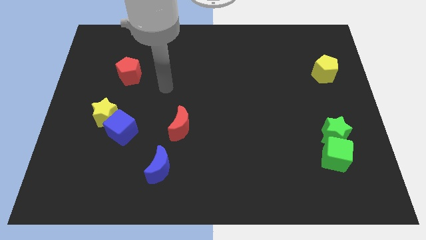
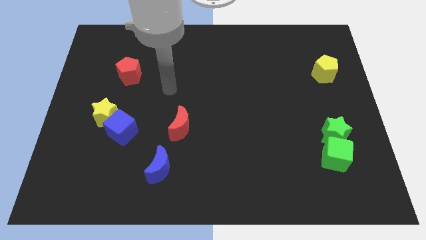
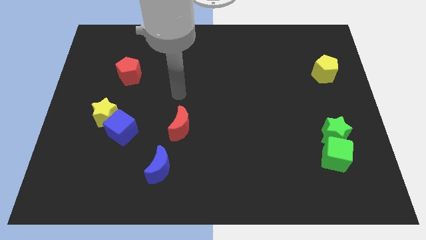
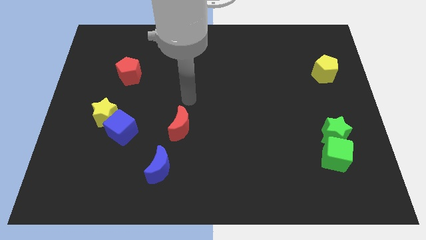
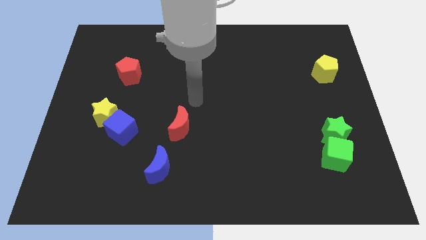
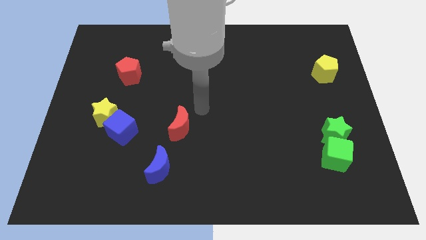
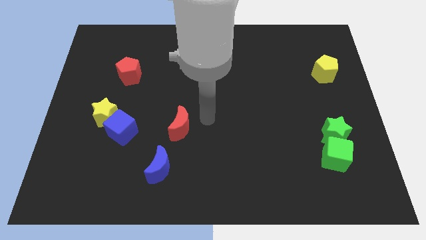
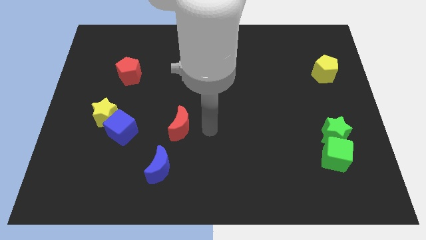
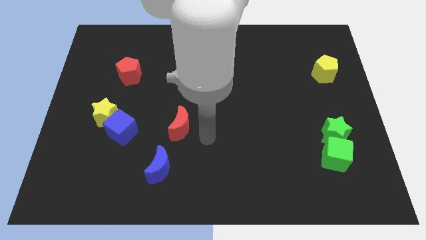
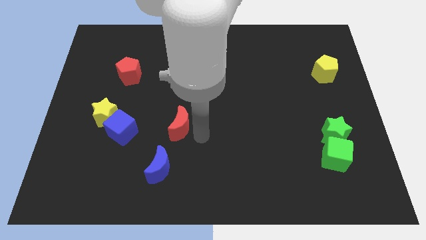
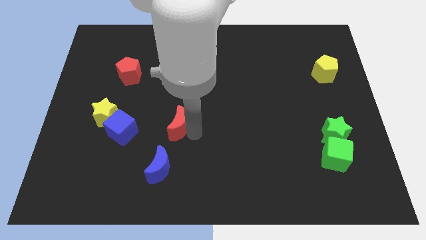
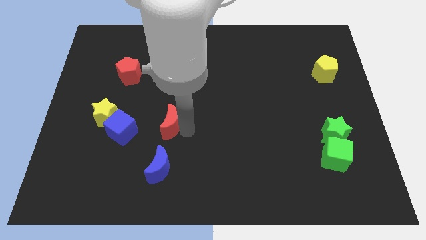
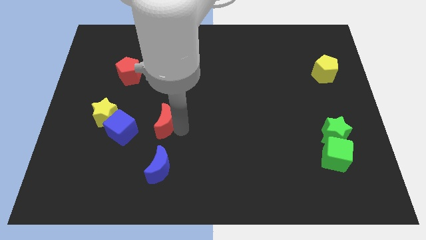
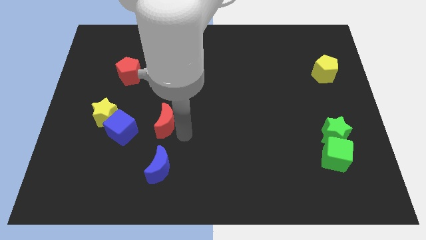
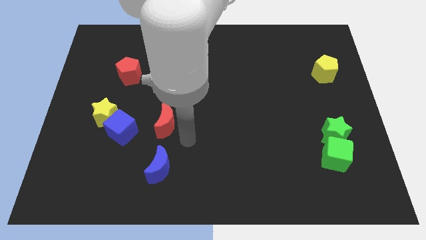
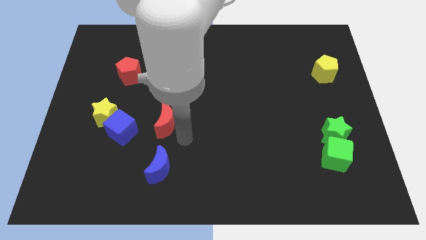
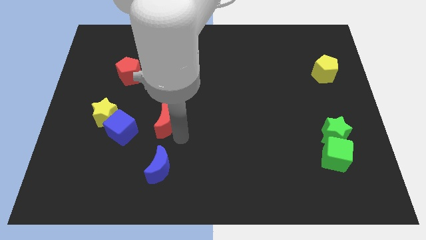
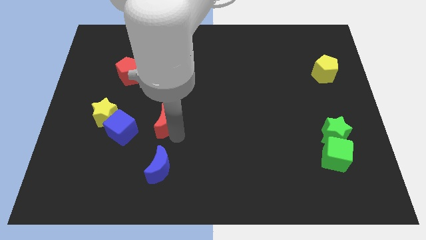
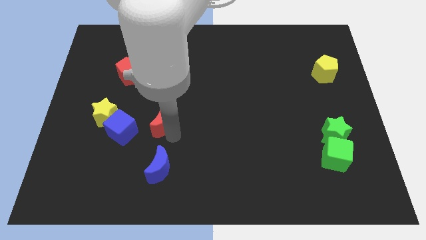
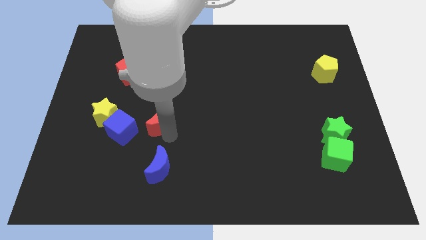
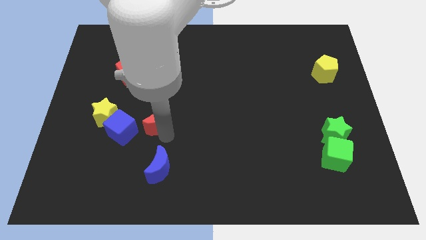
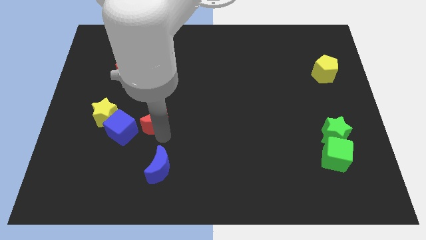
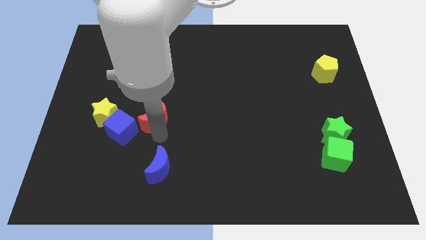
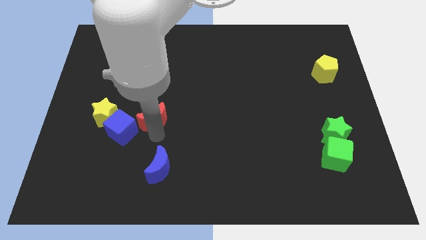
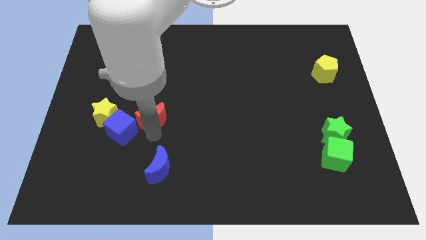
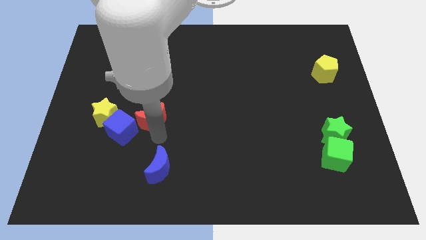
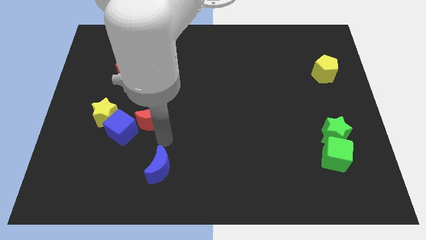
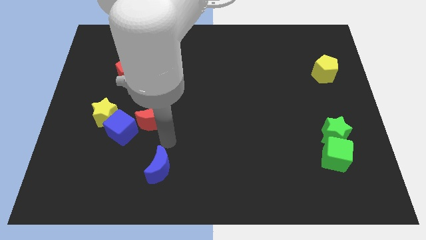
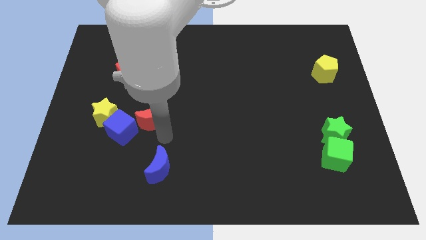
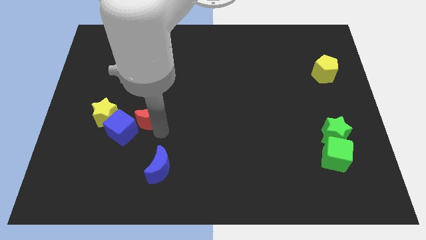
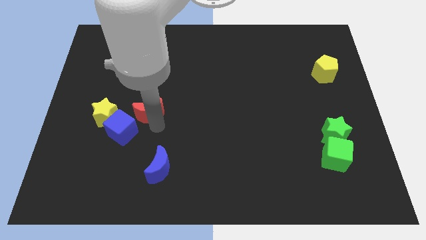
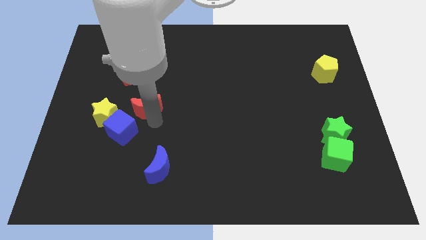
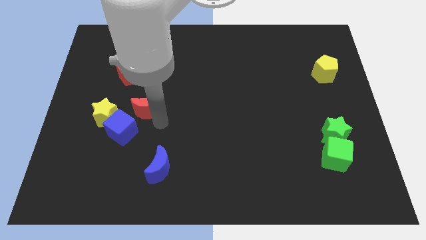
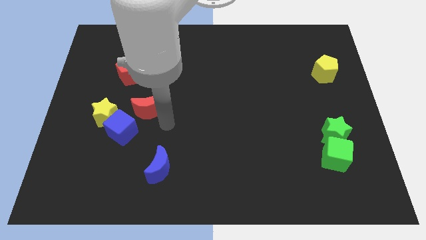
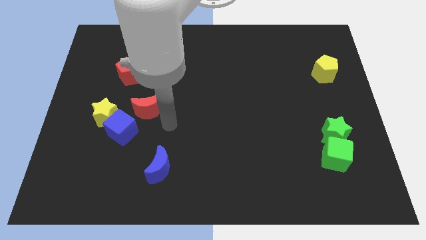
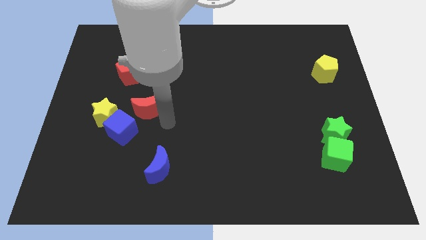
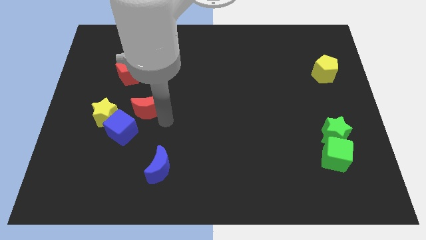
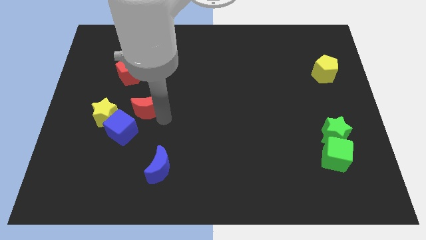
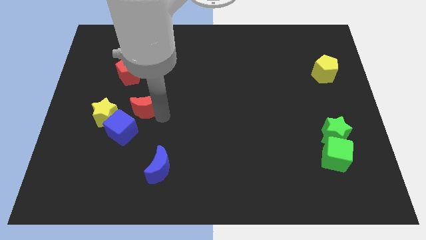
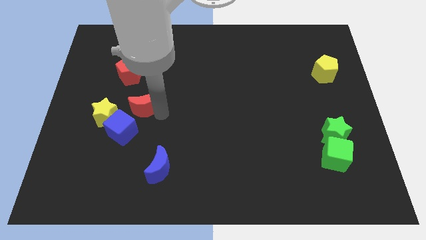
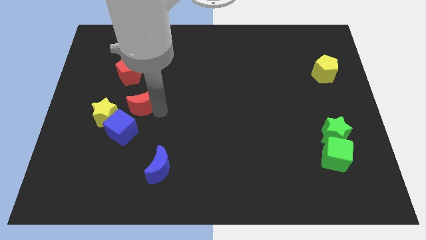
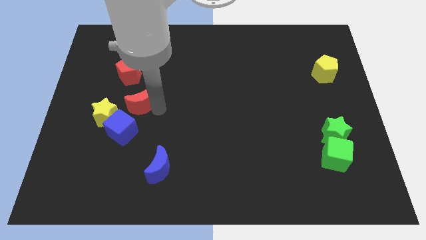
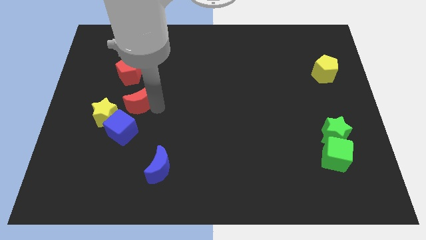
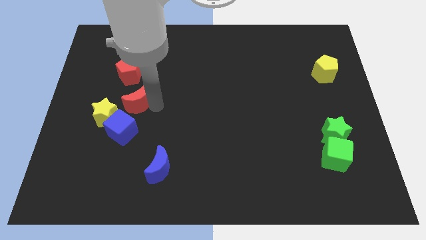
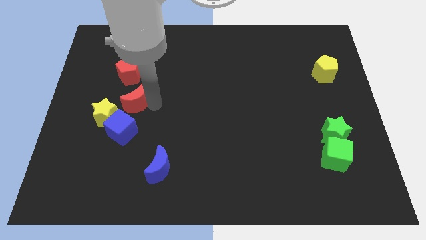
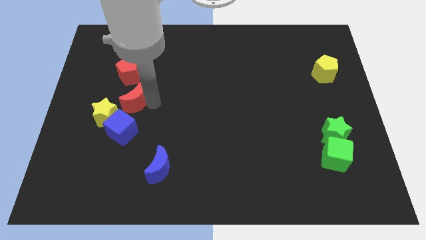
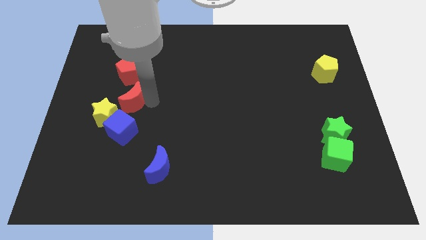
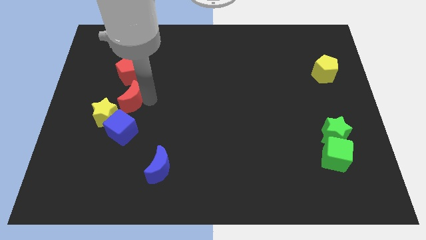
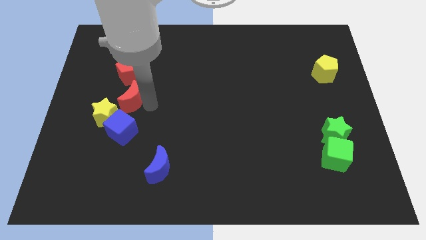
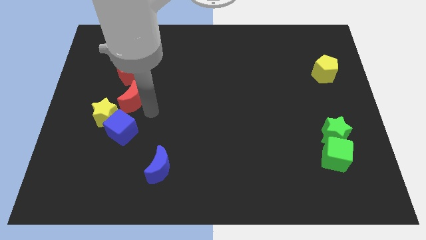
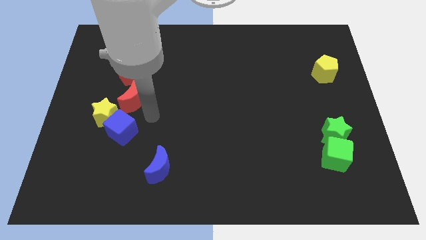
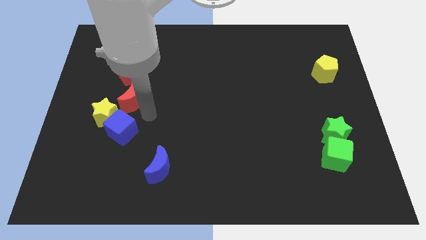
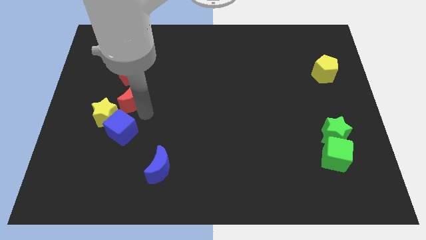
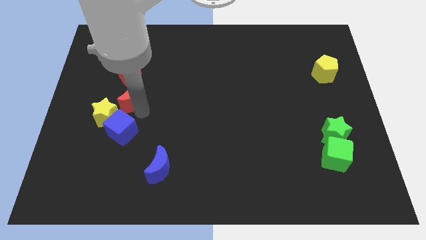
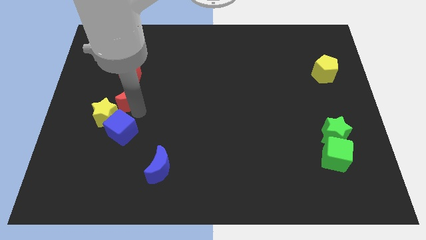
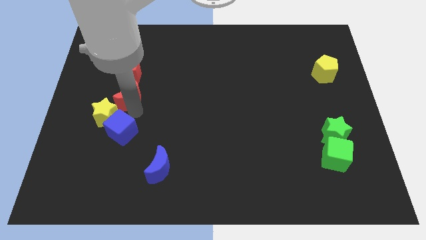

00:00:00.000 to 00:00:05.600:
put the red moon above the yellow star

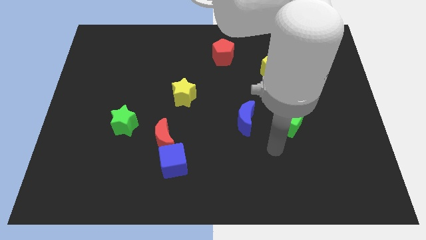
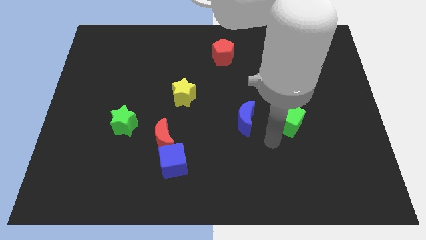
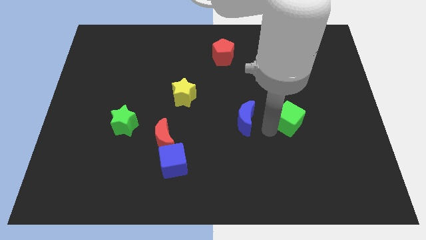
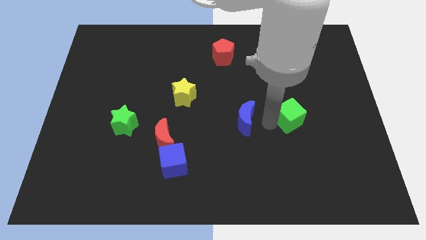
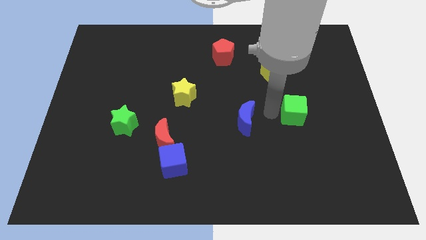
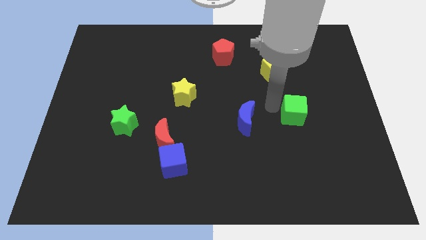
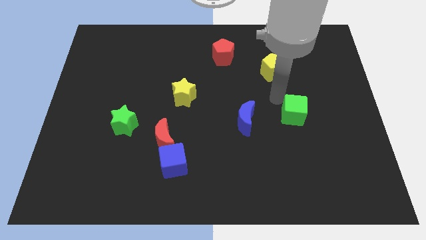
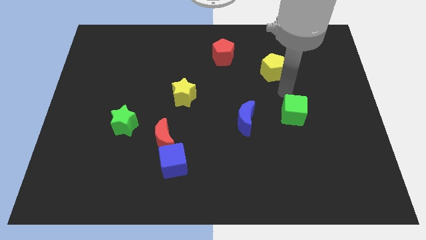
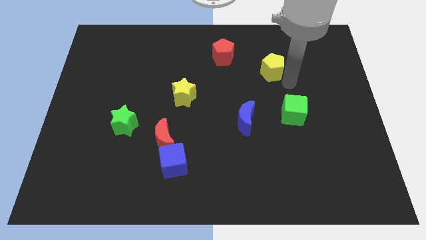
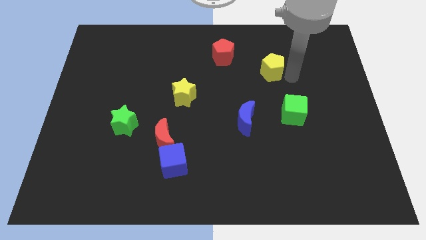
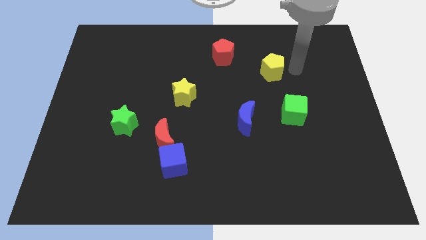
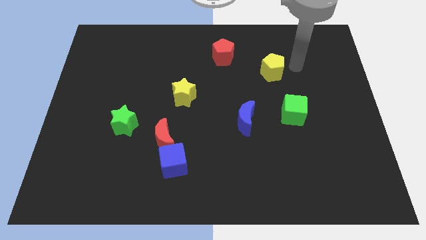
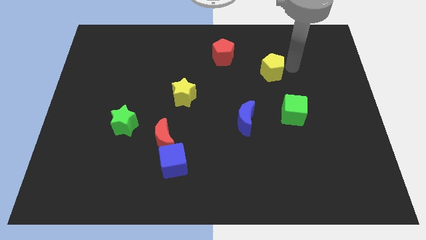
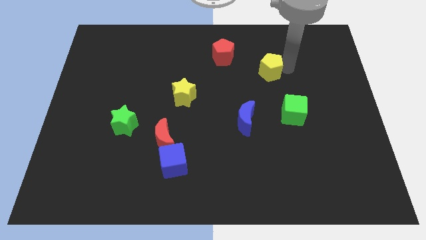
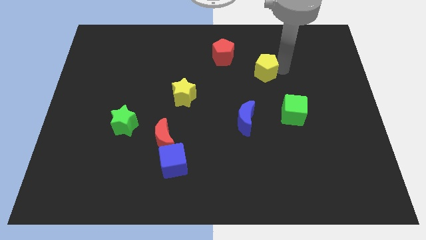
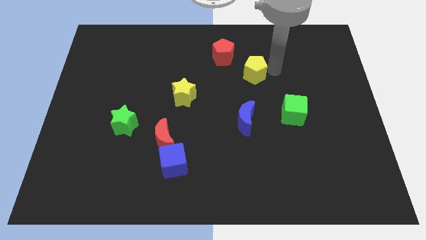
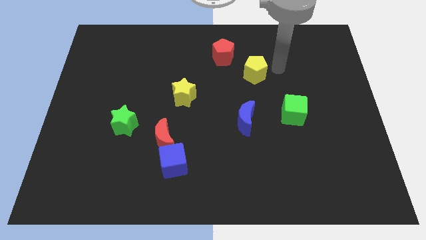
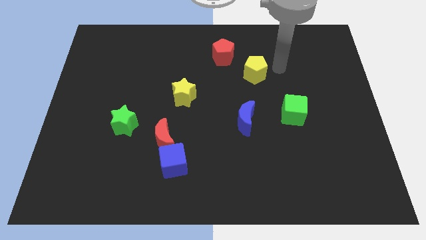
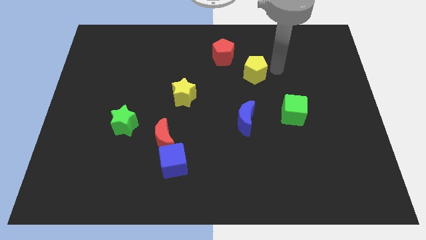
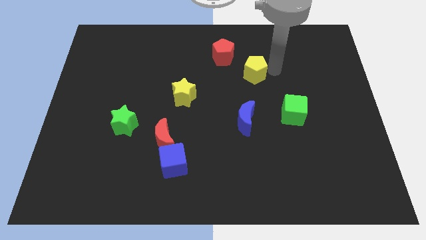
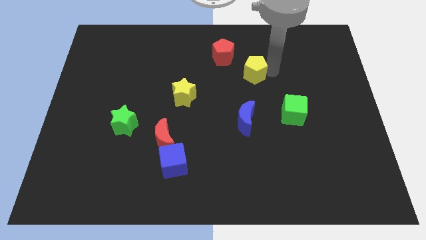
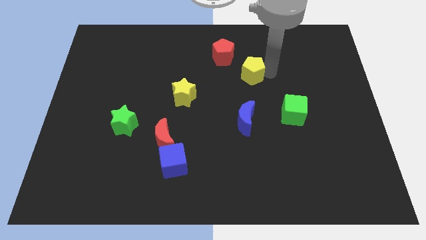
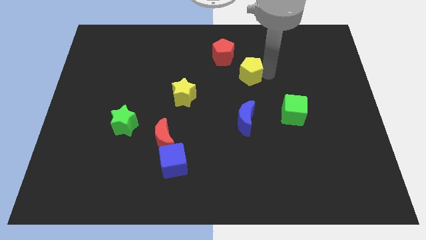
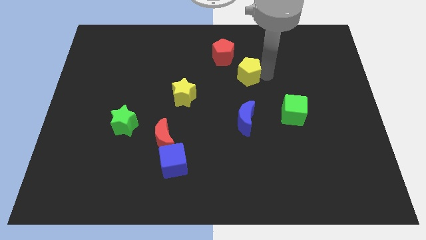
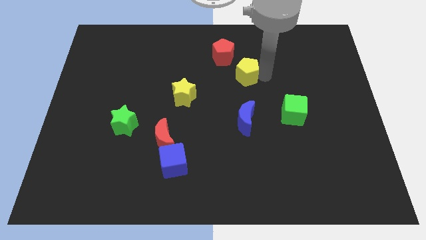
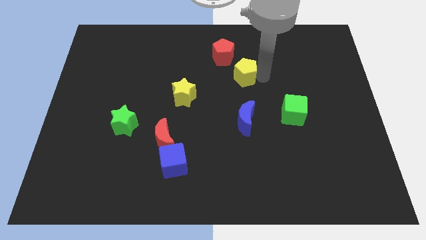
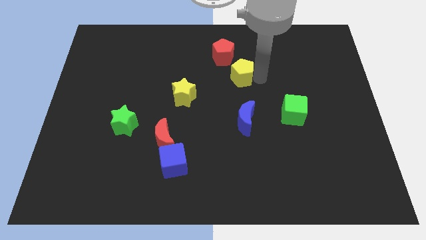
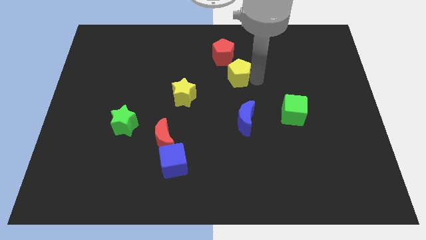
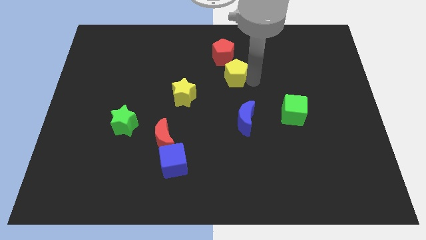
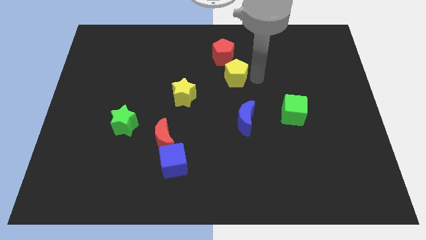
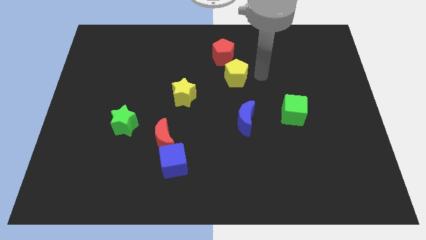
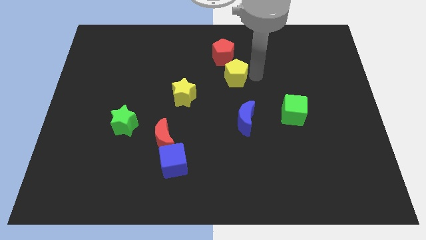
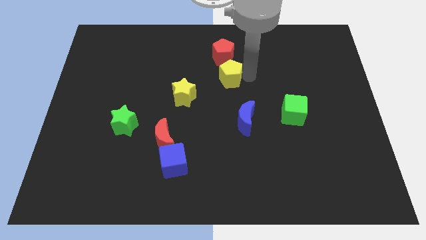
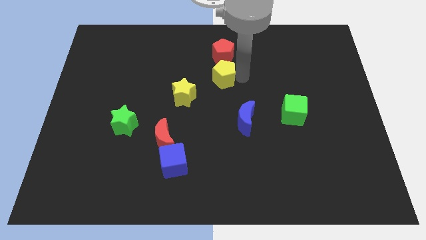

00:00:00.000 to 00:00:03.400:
slide the yellow pentagon to the top right side of the yellow star
